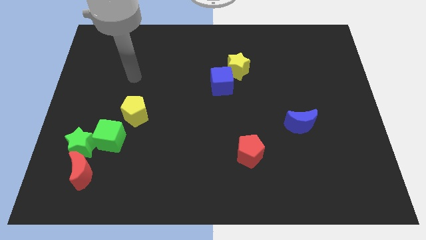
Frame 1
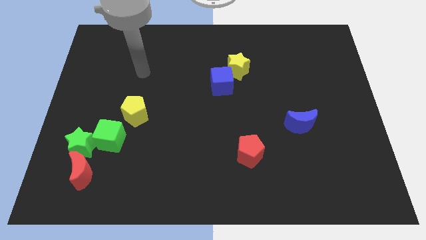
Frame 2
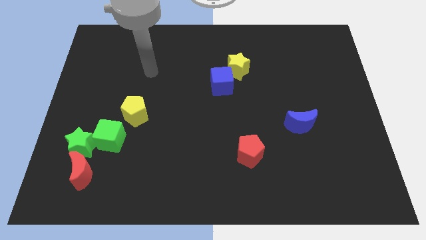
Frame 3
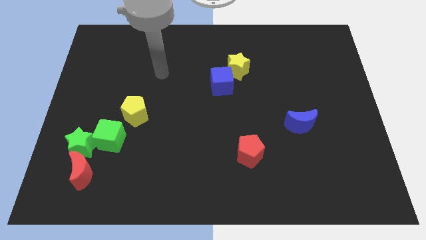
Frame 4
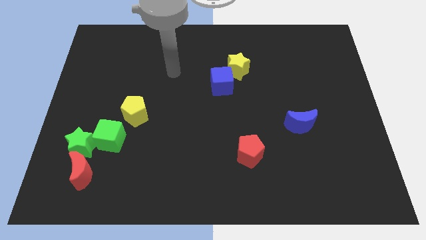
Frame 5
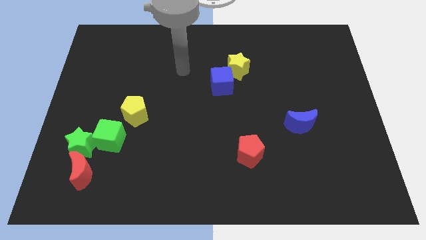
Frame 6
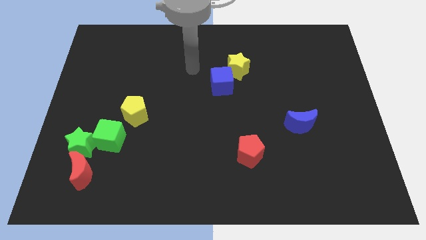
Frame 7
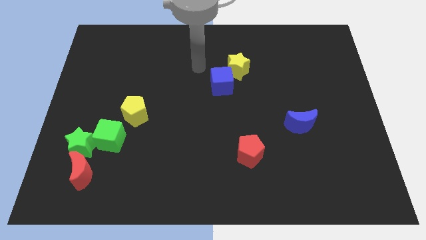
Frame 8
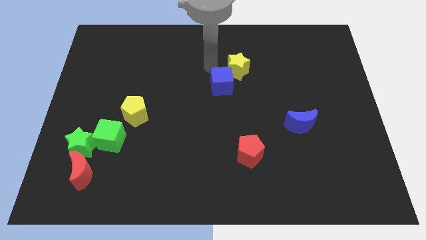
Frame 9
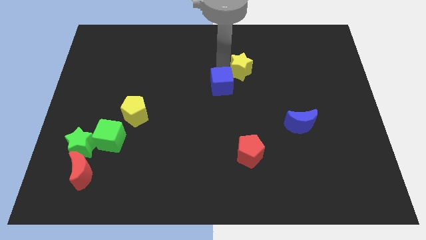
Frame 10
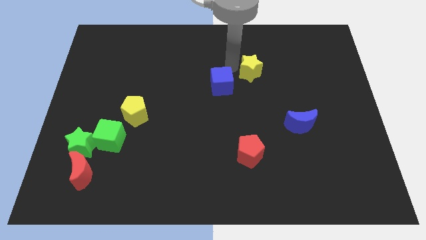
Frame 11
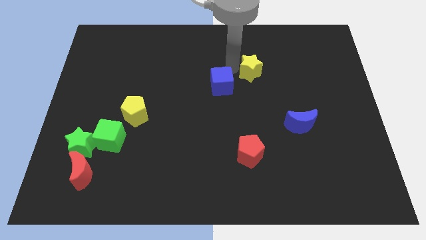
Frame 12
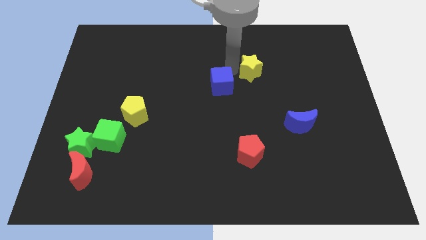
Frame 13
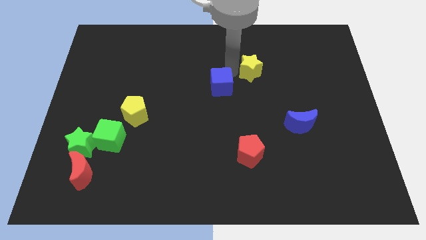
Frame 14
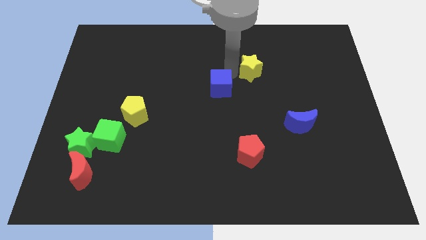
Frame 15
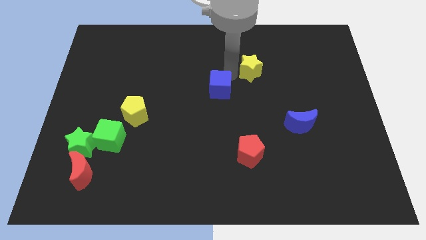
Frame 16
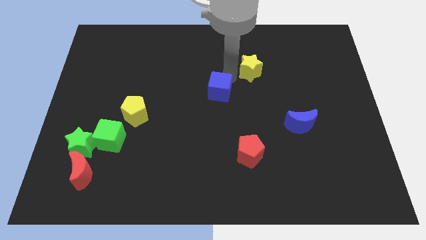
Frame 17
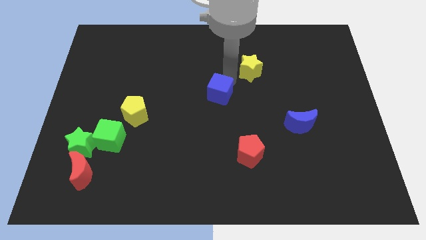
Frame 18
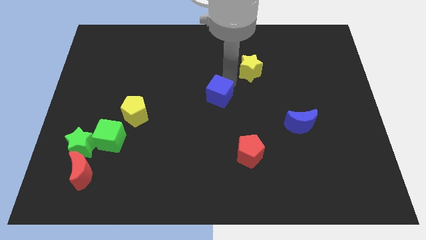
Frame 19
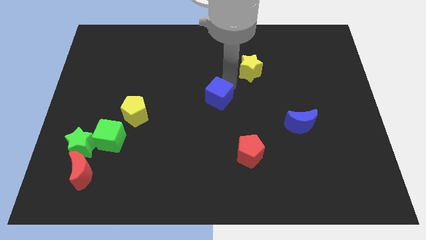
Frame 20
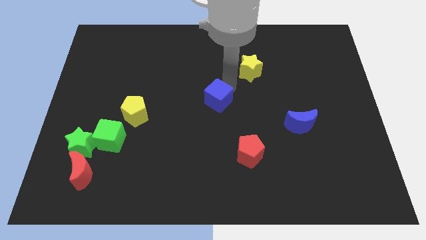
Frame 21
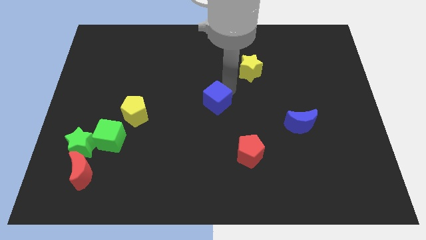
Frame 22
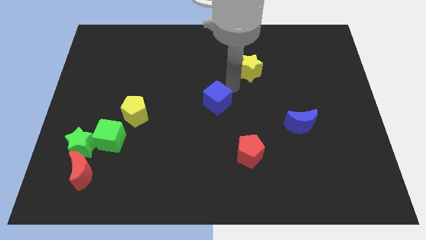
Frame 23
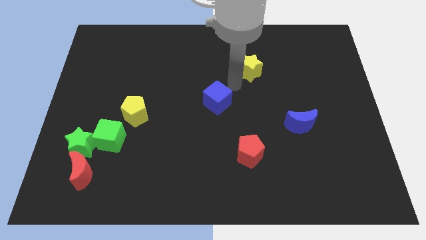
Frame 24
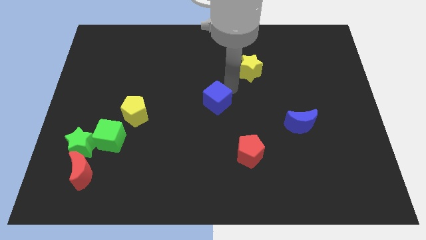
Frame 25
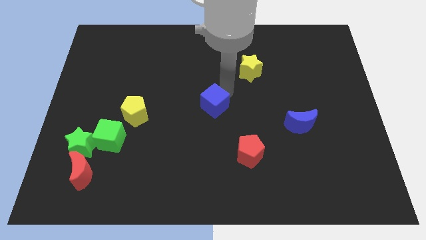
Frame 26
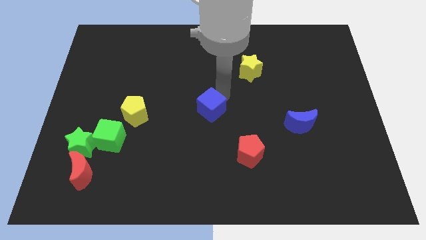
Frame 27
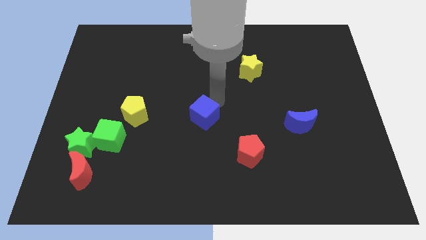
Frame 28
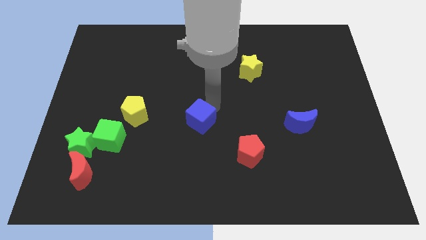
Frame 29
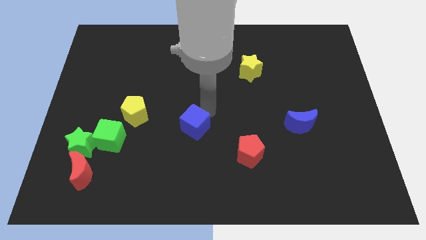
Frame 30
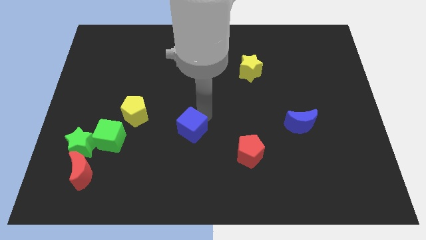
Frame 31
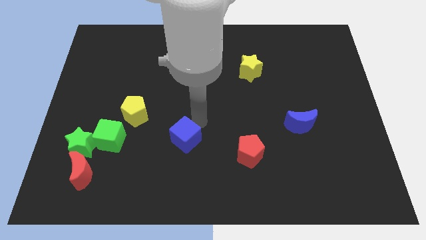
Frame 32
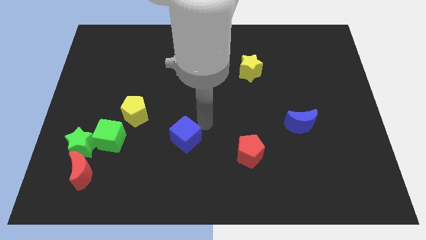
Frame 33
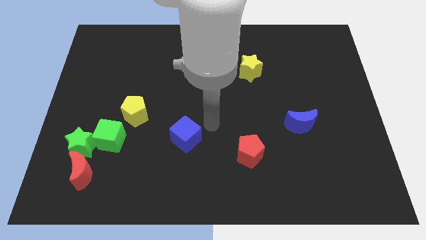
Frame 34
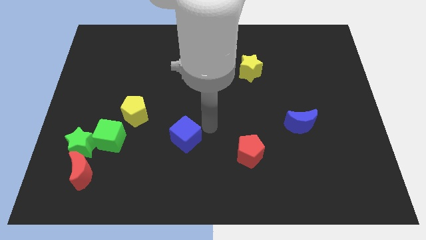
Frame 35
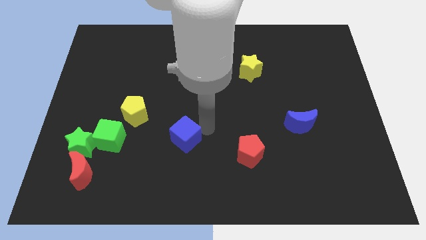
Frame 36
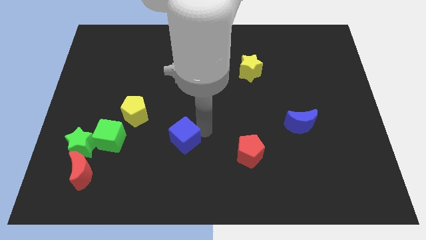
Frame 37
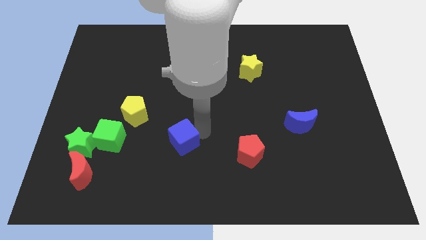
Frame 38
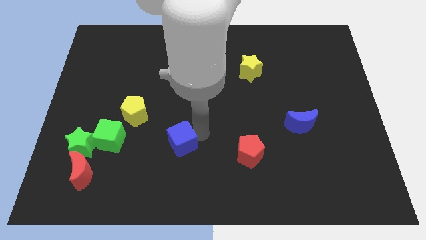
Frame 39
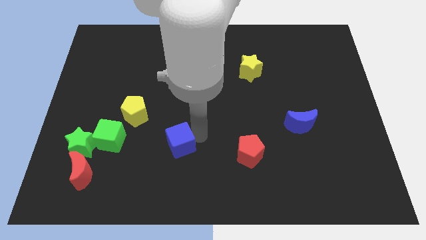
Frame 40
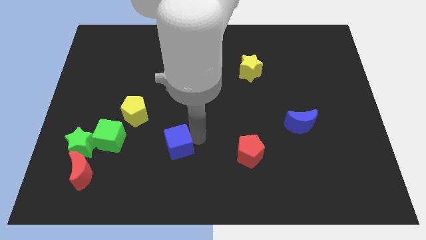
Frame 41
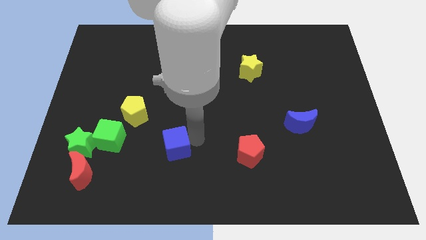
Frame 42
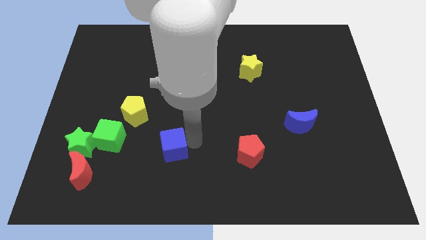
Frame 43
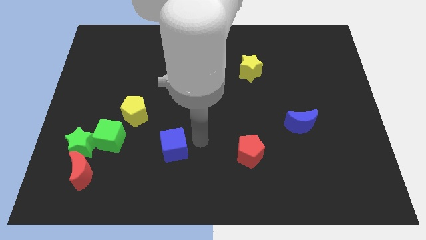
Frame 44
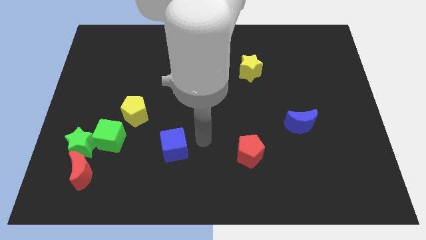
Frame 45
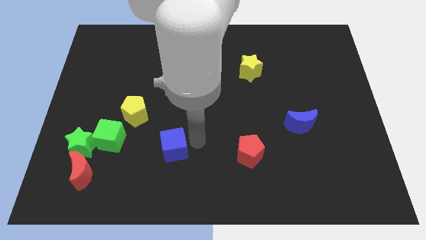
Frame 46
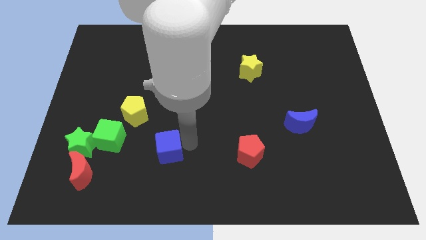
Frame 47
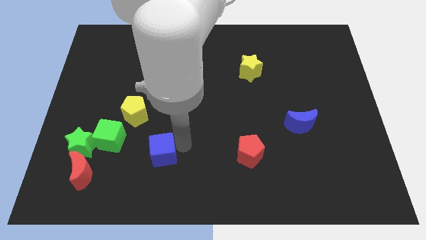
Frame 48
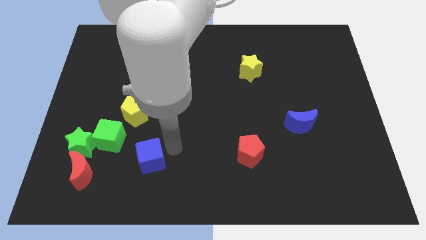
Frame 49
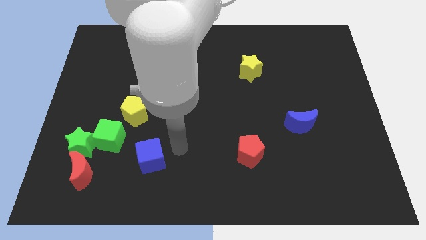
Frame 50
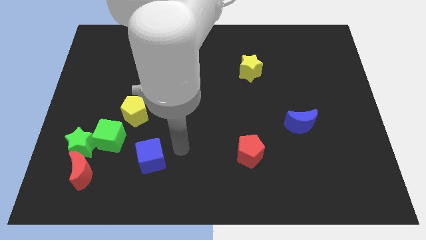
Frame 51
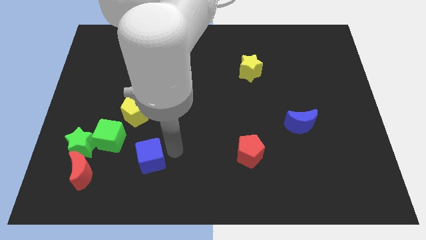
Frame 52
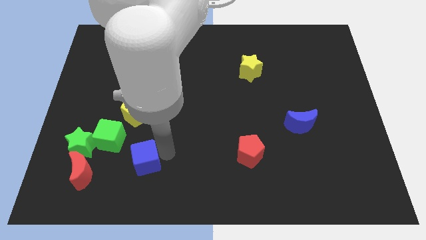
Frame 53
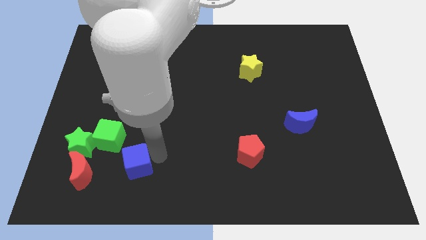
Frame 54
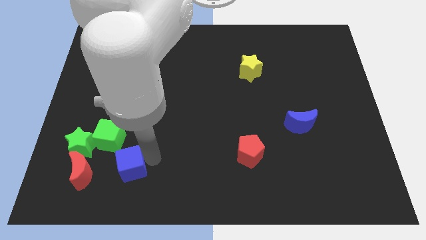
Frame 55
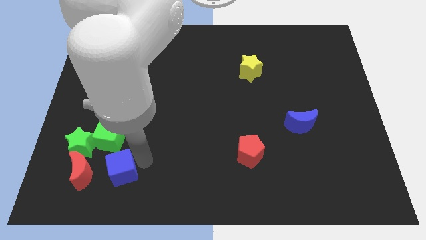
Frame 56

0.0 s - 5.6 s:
slide the blue cube below the green cube

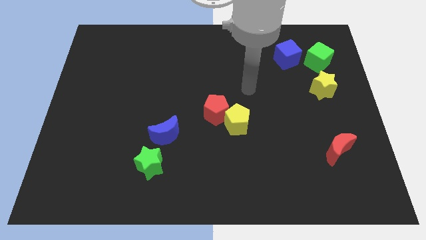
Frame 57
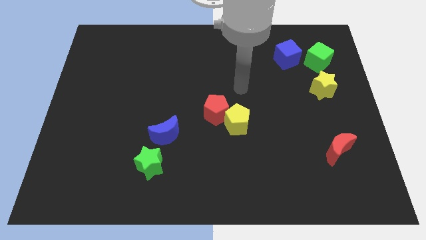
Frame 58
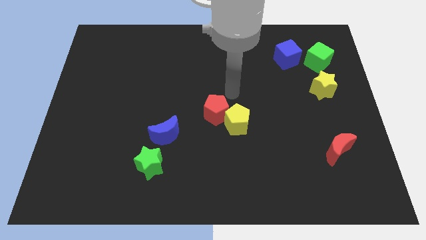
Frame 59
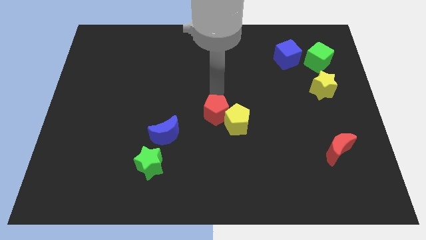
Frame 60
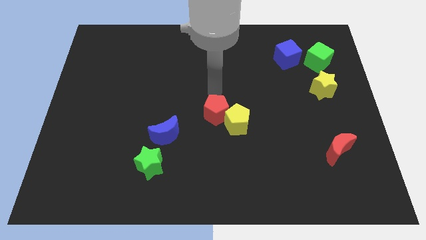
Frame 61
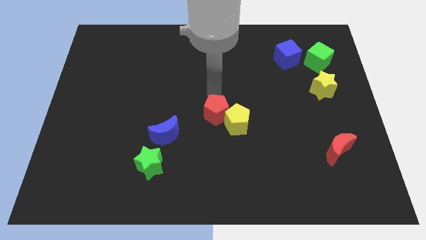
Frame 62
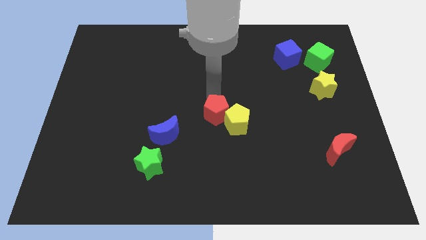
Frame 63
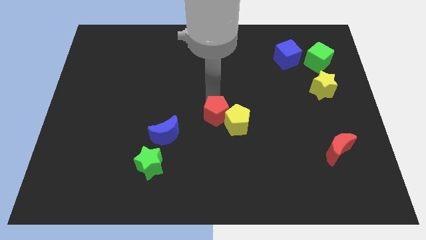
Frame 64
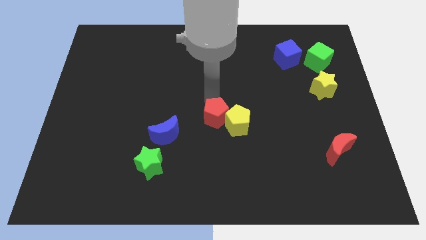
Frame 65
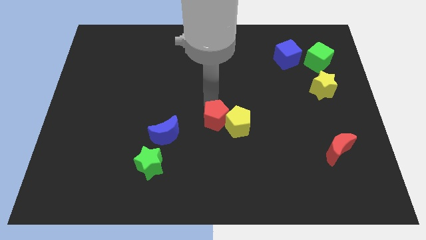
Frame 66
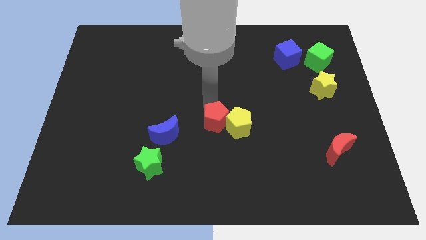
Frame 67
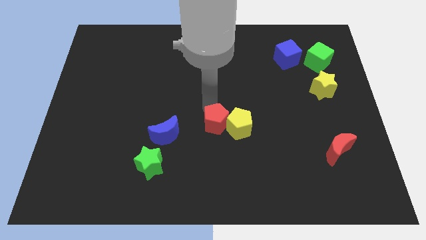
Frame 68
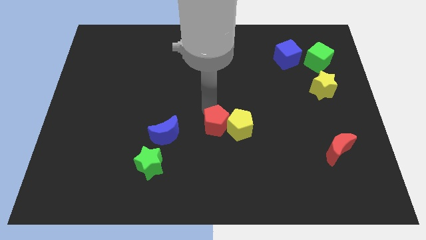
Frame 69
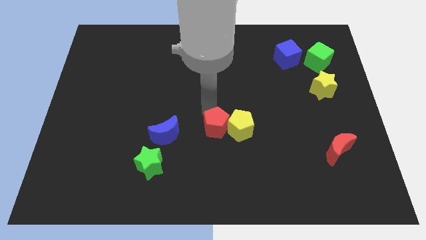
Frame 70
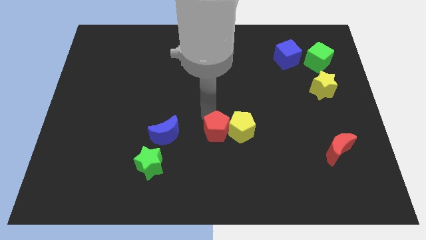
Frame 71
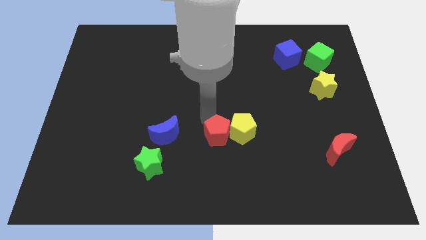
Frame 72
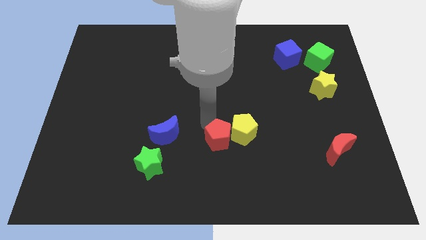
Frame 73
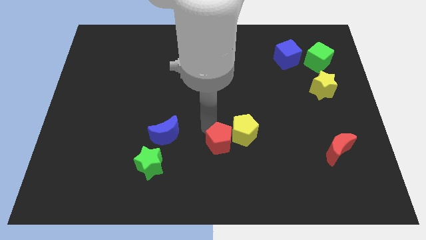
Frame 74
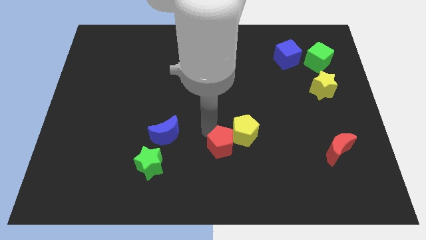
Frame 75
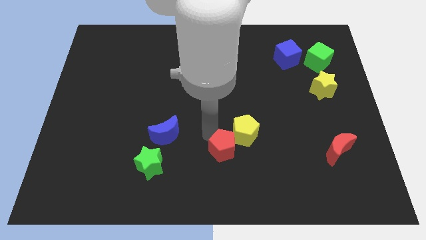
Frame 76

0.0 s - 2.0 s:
slide the red pentagon below the yellow pentagon

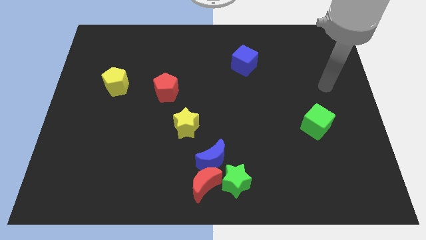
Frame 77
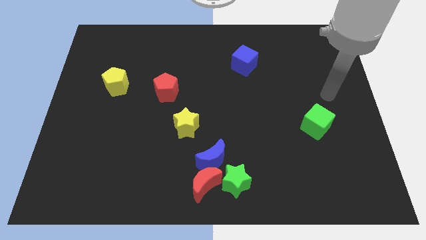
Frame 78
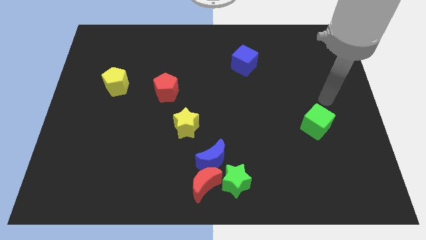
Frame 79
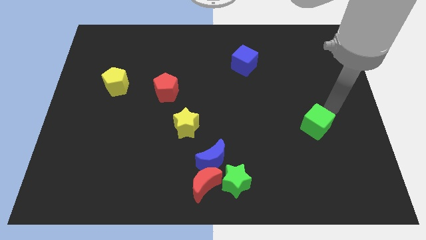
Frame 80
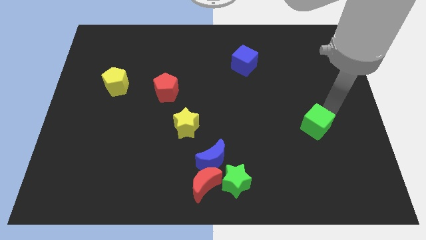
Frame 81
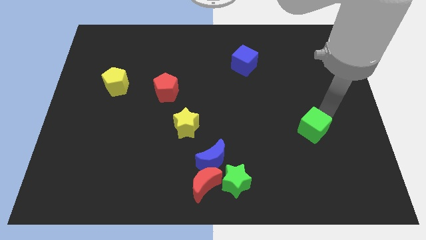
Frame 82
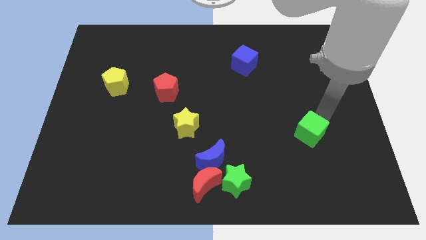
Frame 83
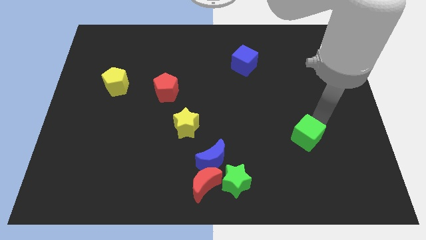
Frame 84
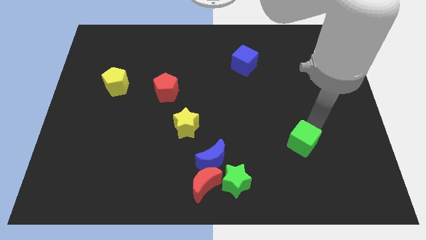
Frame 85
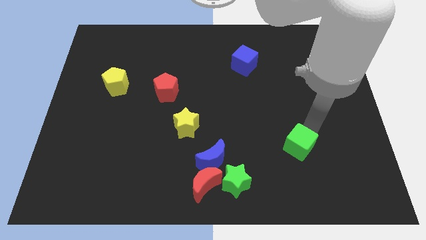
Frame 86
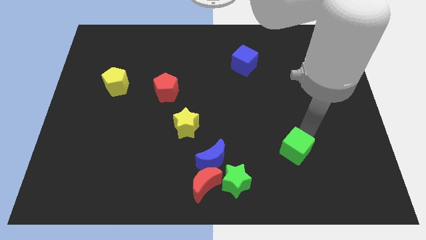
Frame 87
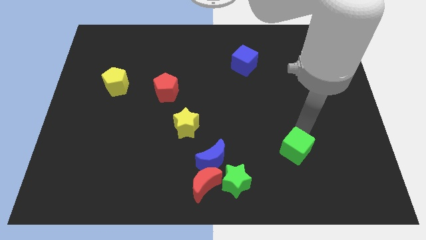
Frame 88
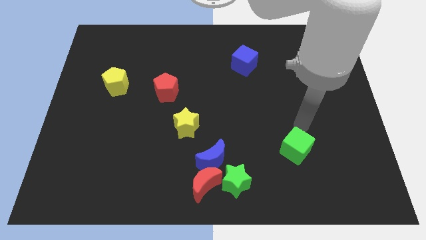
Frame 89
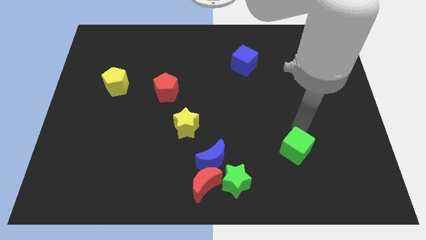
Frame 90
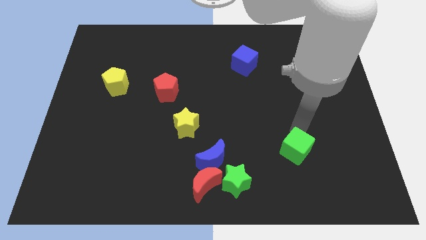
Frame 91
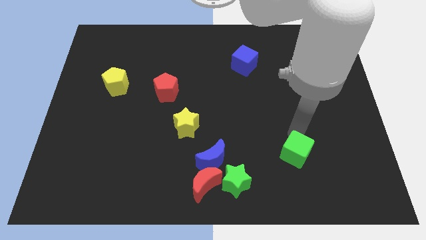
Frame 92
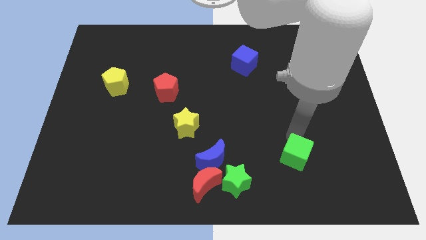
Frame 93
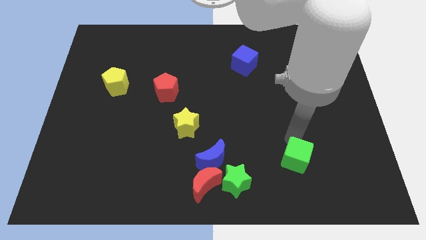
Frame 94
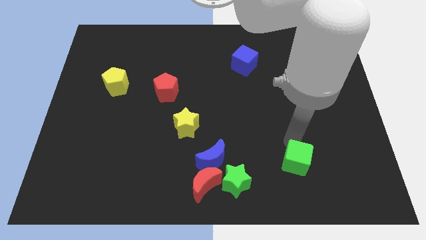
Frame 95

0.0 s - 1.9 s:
slide the green cube right of the green star
